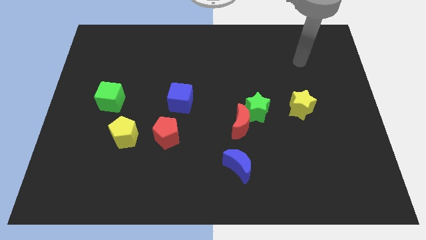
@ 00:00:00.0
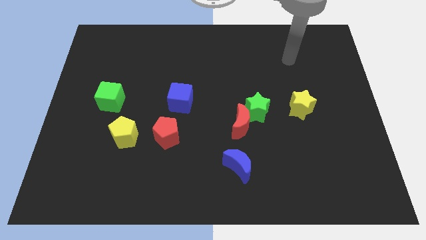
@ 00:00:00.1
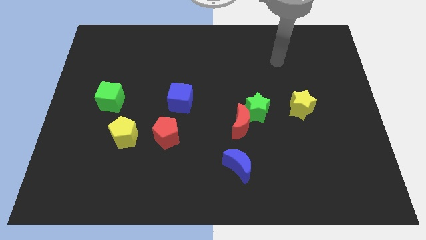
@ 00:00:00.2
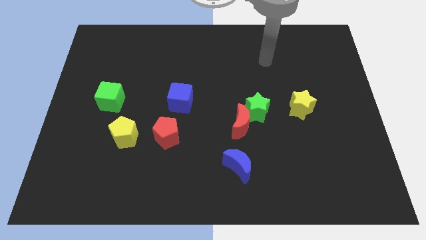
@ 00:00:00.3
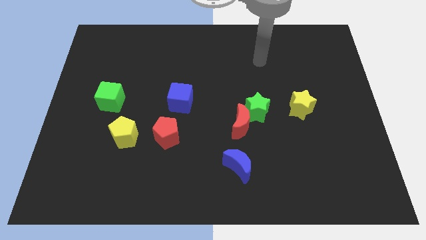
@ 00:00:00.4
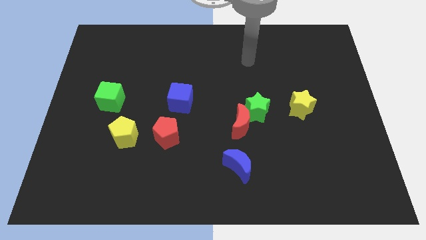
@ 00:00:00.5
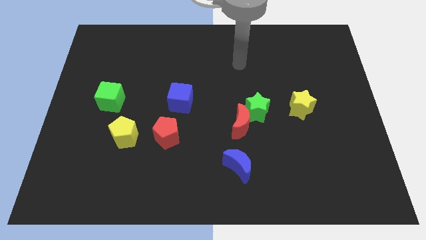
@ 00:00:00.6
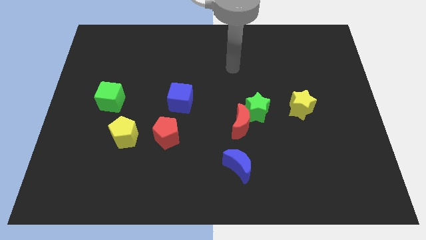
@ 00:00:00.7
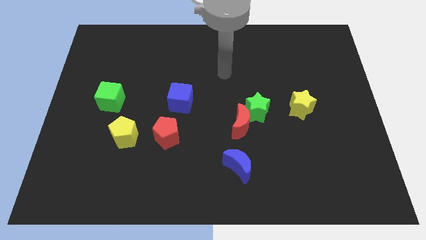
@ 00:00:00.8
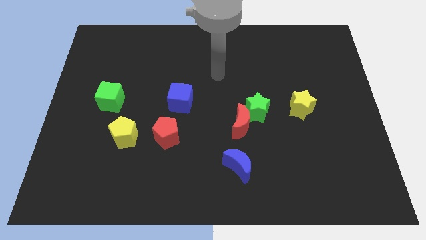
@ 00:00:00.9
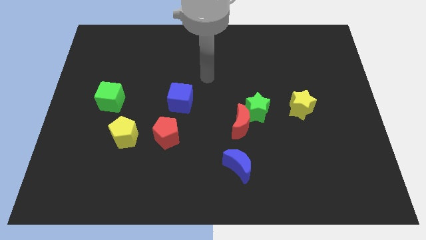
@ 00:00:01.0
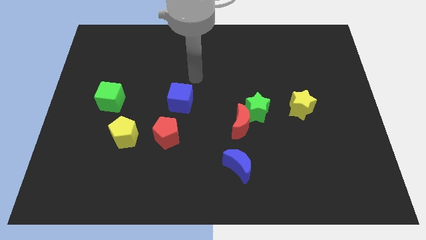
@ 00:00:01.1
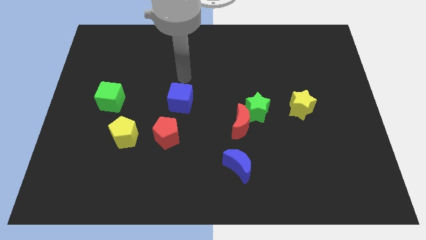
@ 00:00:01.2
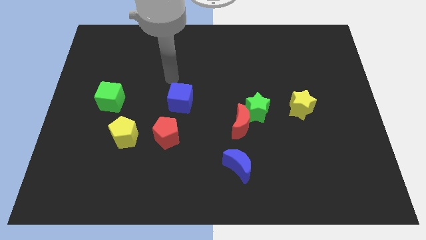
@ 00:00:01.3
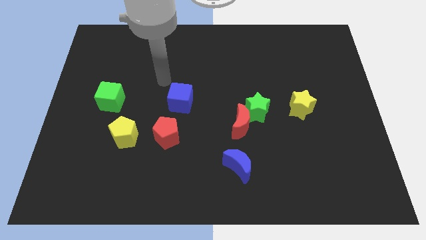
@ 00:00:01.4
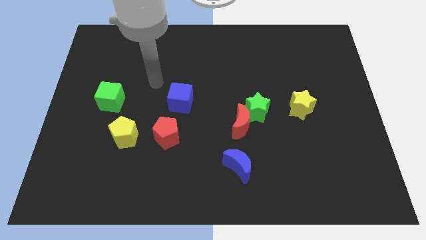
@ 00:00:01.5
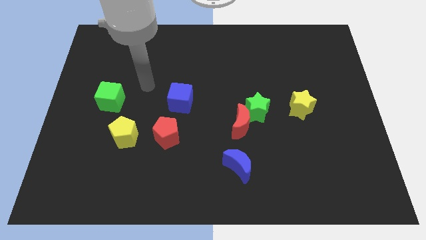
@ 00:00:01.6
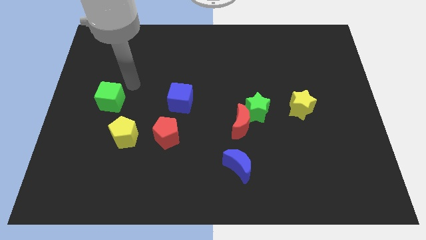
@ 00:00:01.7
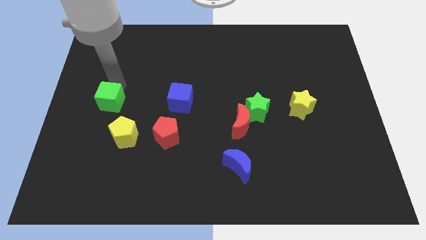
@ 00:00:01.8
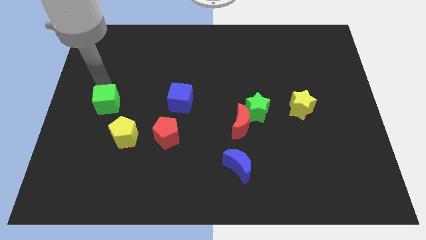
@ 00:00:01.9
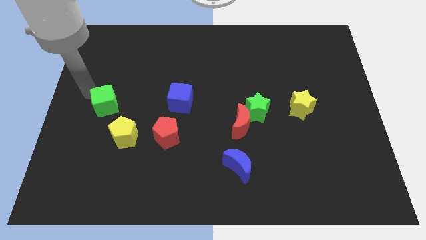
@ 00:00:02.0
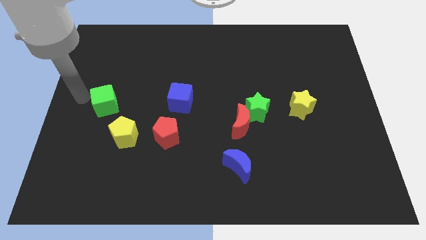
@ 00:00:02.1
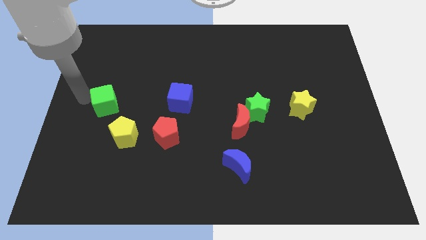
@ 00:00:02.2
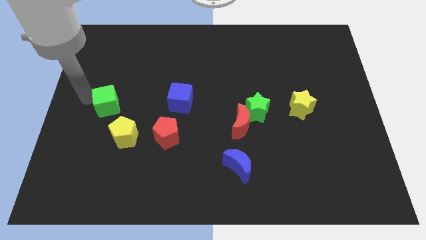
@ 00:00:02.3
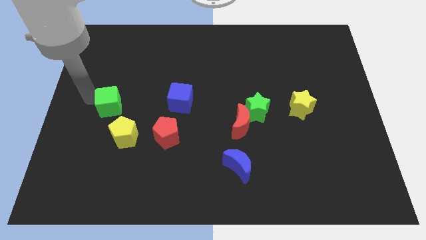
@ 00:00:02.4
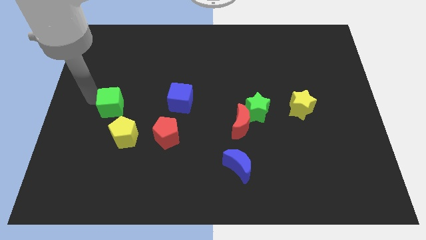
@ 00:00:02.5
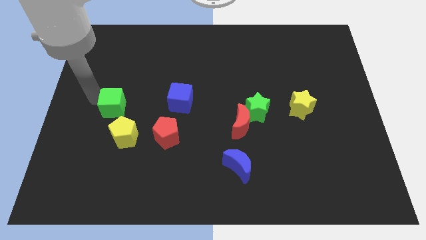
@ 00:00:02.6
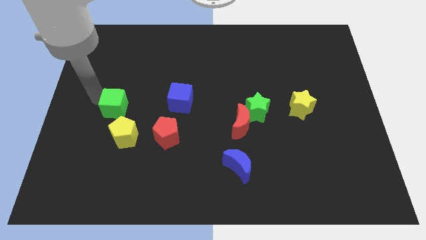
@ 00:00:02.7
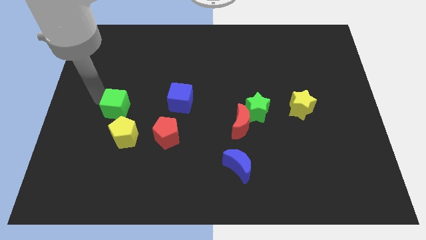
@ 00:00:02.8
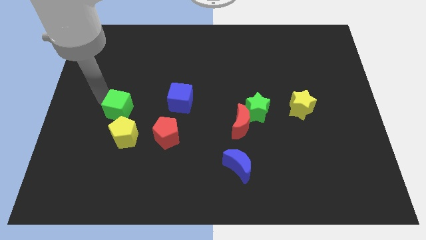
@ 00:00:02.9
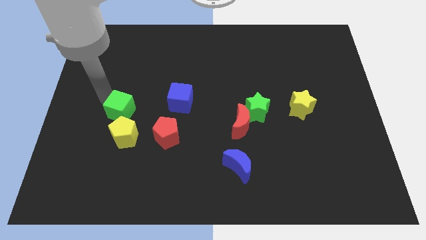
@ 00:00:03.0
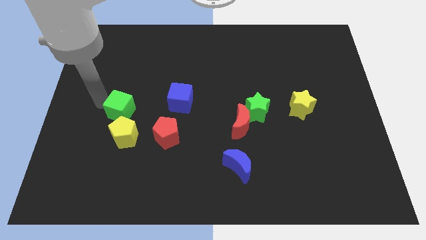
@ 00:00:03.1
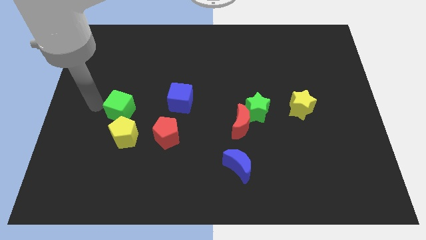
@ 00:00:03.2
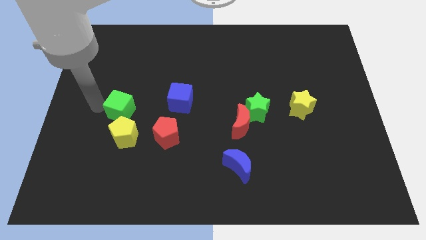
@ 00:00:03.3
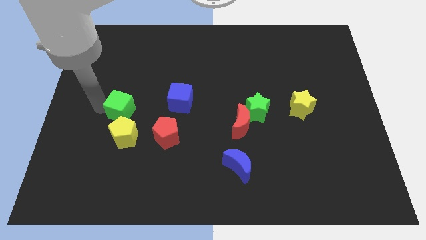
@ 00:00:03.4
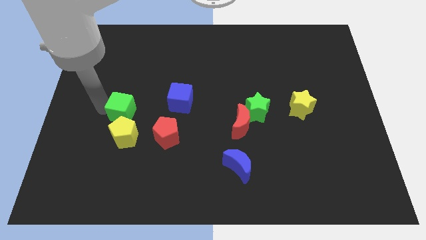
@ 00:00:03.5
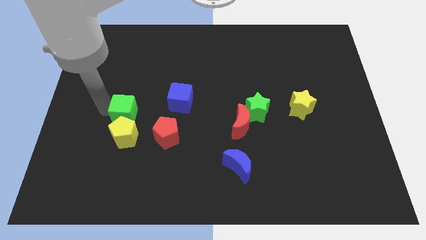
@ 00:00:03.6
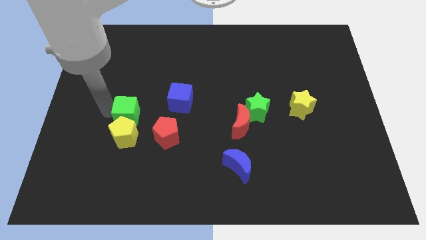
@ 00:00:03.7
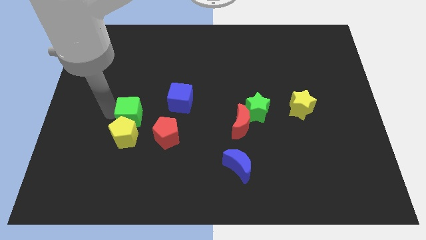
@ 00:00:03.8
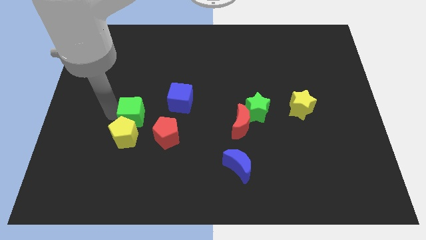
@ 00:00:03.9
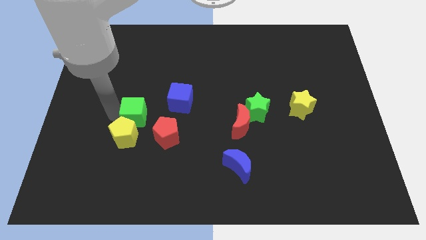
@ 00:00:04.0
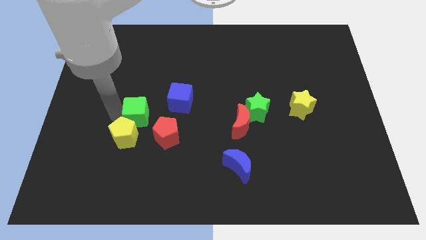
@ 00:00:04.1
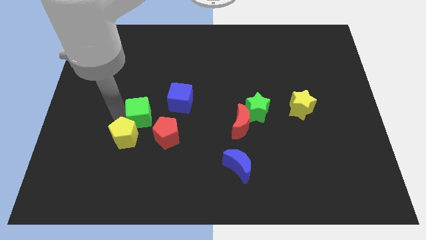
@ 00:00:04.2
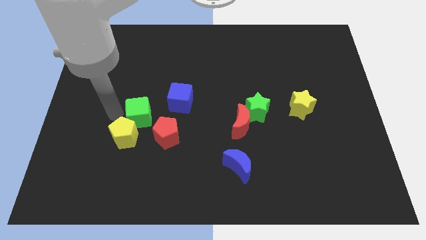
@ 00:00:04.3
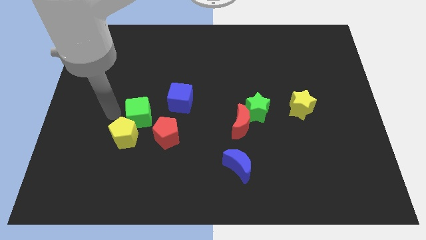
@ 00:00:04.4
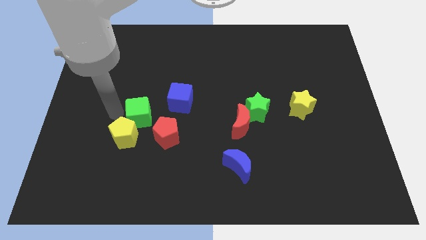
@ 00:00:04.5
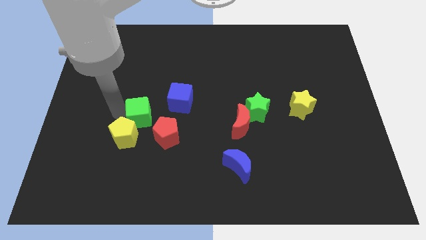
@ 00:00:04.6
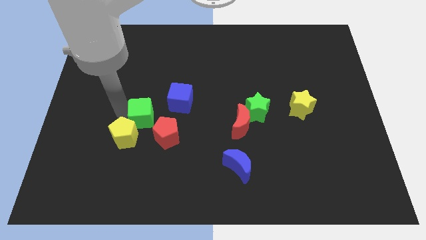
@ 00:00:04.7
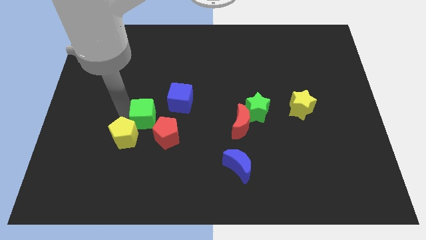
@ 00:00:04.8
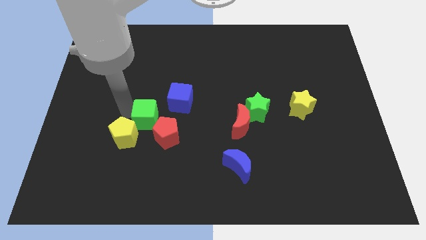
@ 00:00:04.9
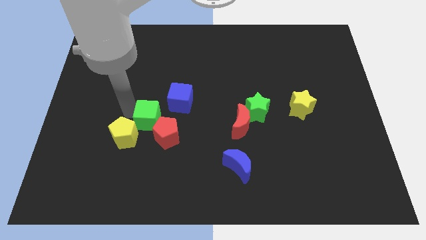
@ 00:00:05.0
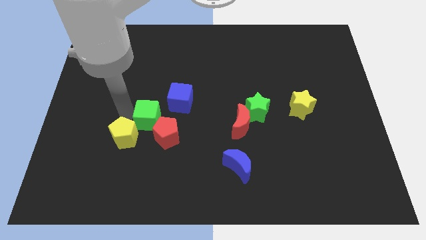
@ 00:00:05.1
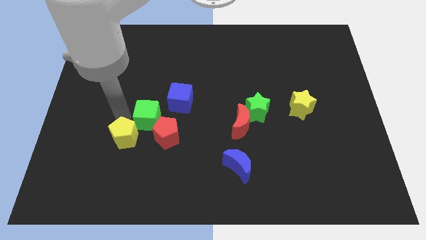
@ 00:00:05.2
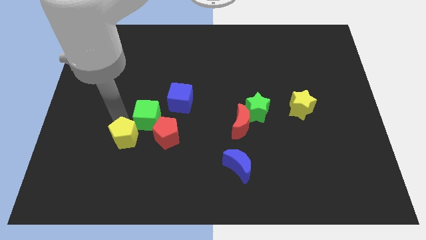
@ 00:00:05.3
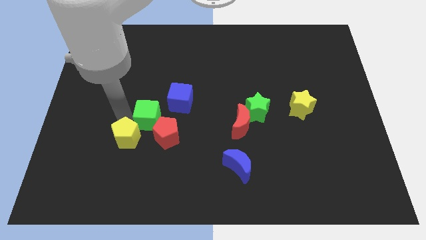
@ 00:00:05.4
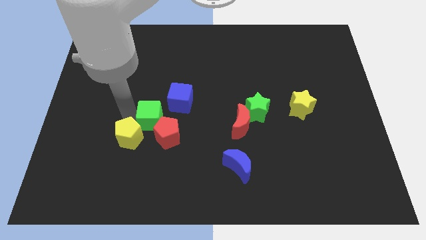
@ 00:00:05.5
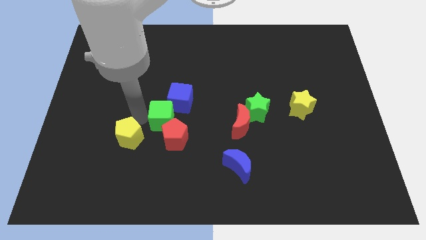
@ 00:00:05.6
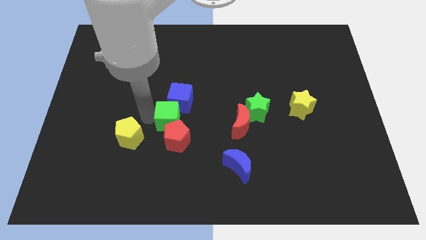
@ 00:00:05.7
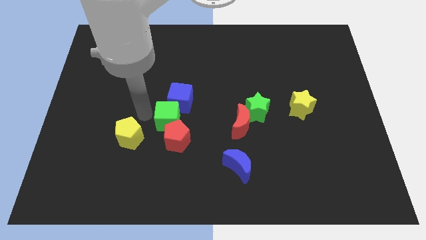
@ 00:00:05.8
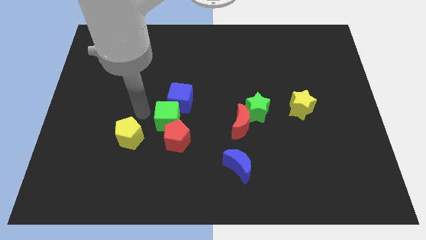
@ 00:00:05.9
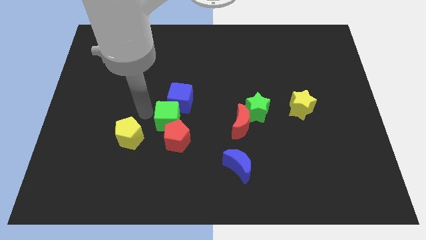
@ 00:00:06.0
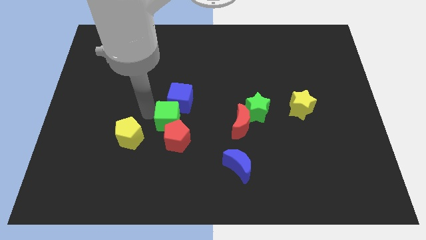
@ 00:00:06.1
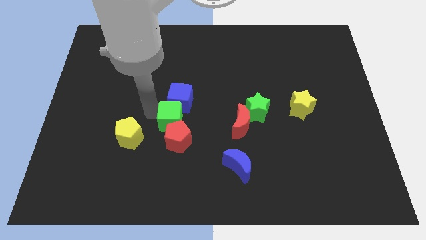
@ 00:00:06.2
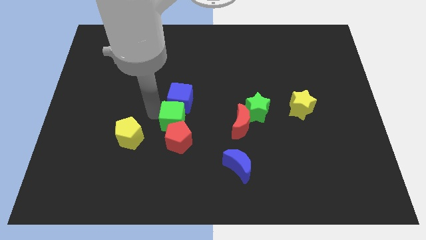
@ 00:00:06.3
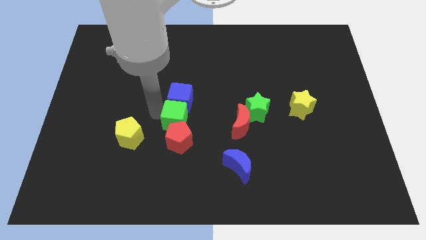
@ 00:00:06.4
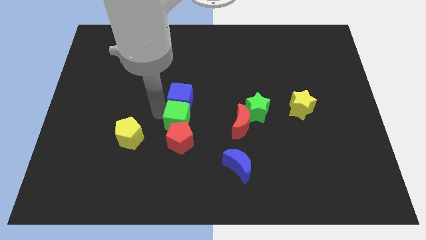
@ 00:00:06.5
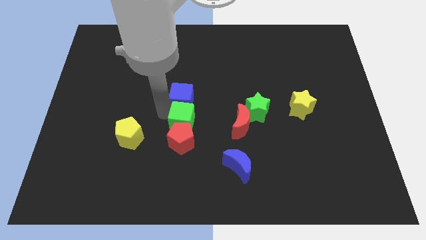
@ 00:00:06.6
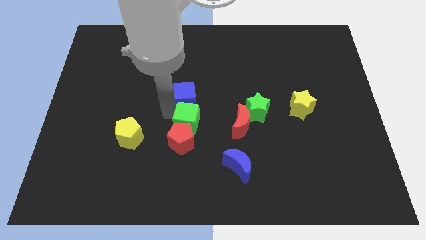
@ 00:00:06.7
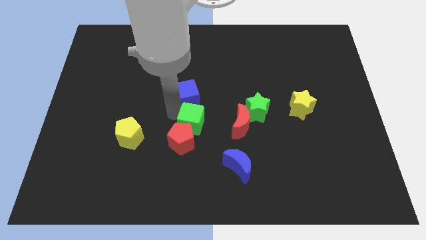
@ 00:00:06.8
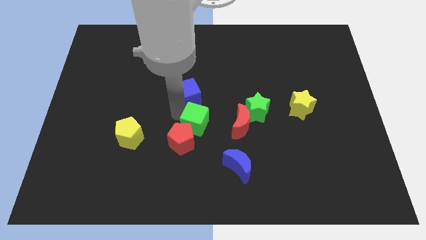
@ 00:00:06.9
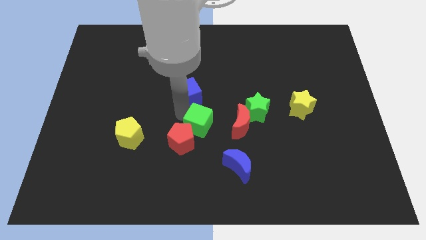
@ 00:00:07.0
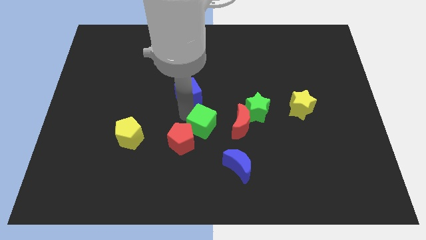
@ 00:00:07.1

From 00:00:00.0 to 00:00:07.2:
slide the green cube to the right side of the red pentagon
